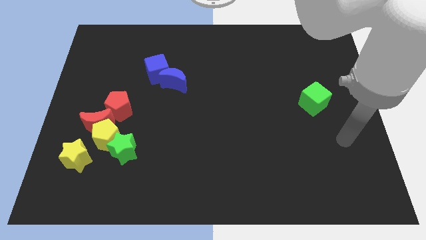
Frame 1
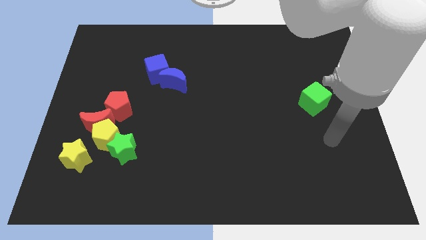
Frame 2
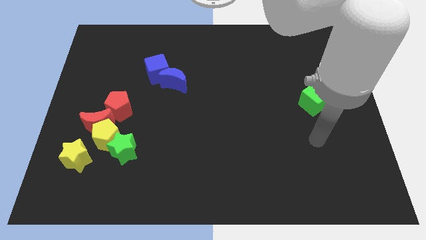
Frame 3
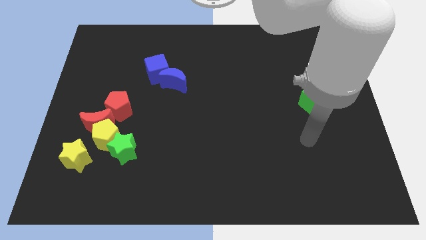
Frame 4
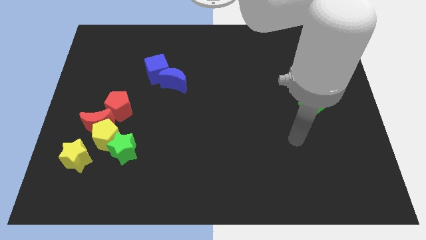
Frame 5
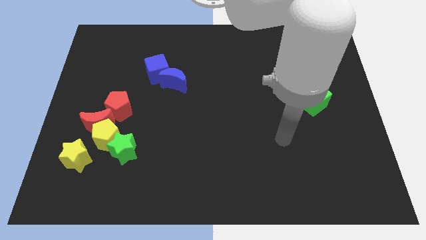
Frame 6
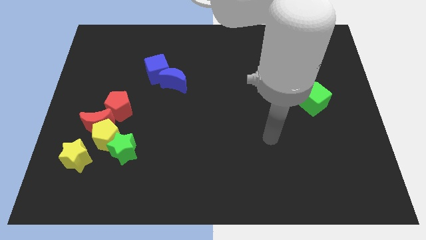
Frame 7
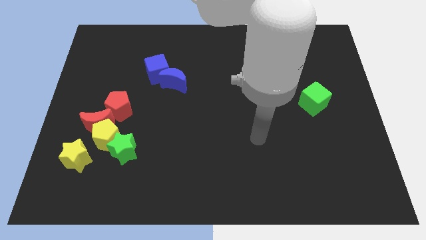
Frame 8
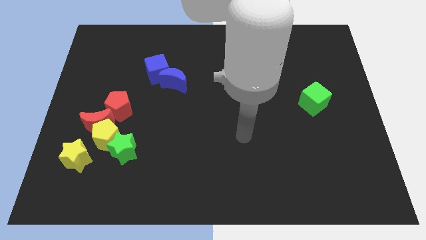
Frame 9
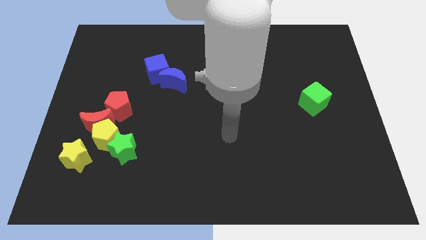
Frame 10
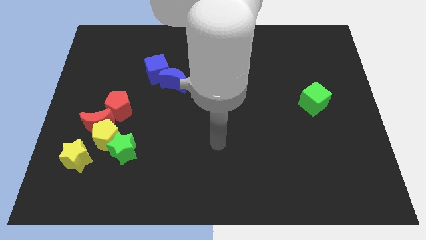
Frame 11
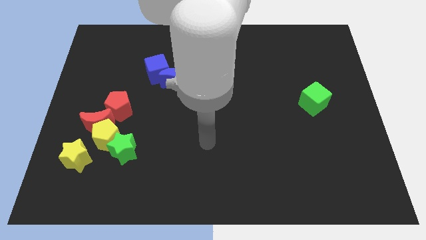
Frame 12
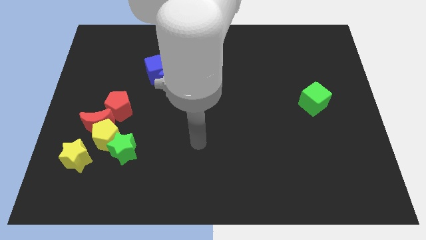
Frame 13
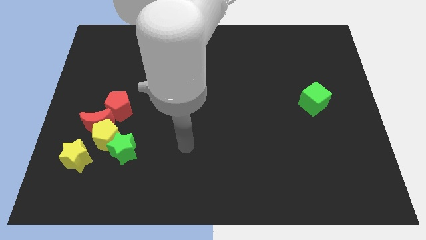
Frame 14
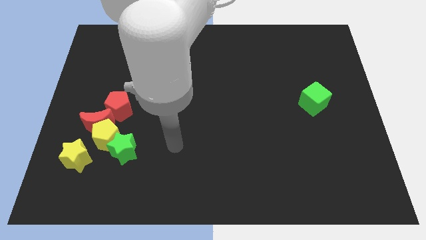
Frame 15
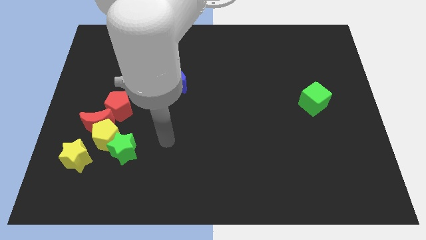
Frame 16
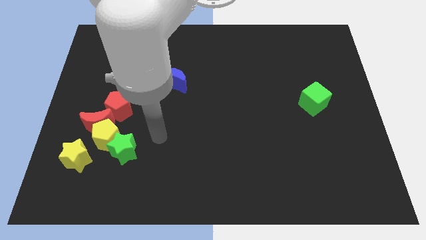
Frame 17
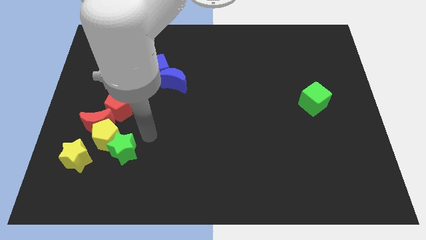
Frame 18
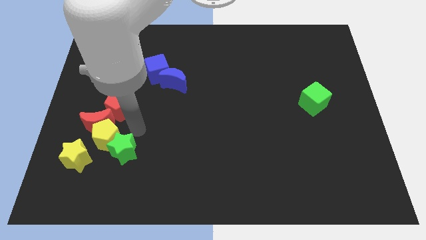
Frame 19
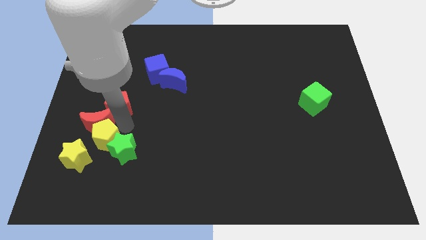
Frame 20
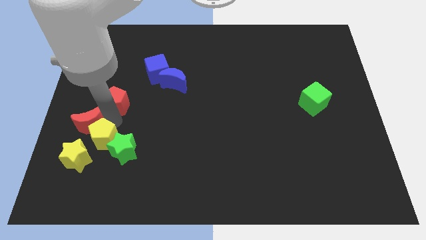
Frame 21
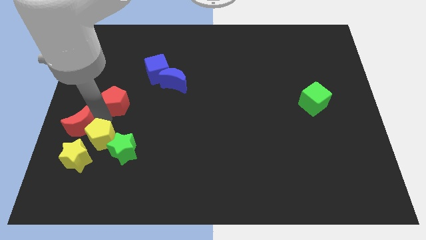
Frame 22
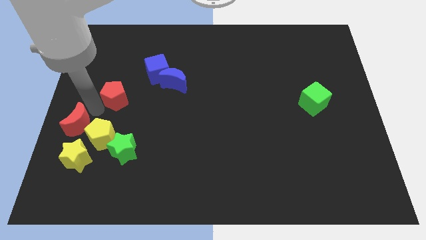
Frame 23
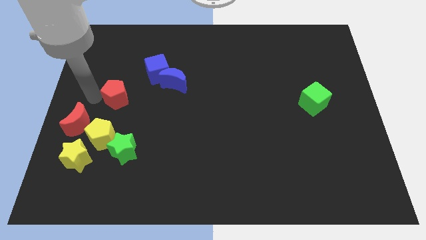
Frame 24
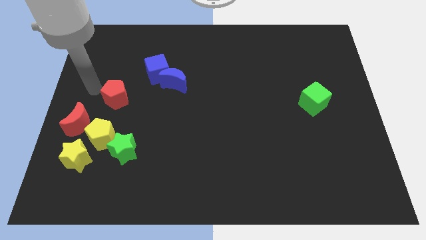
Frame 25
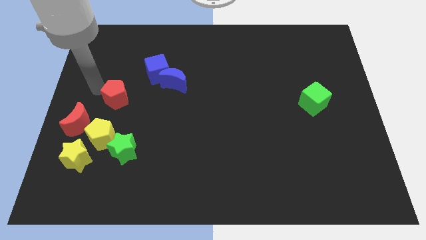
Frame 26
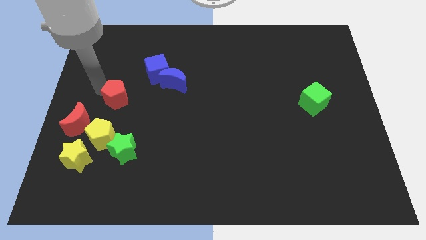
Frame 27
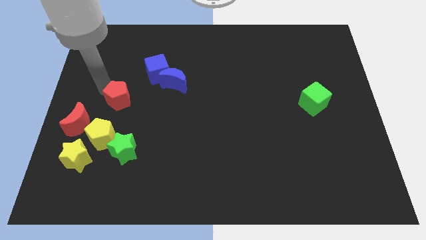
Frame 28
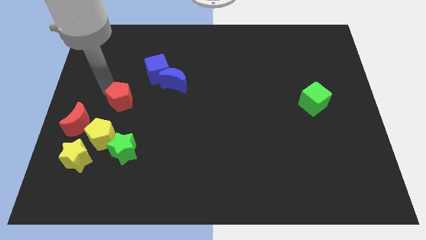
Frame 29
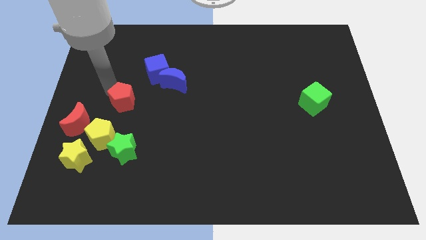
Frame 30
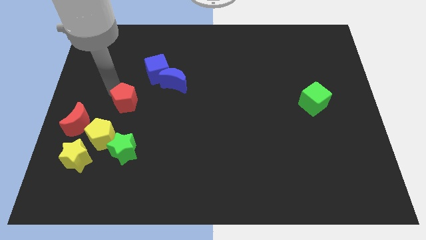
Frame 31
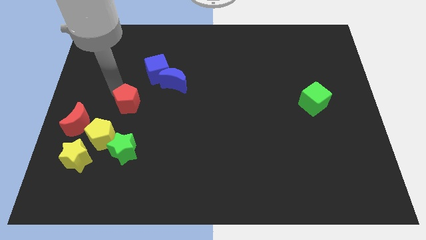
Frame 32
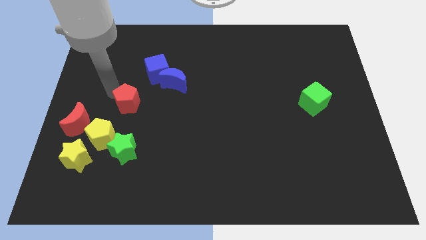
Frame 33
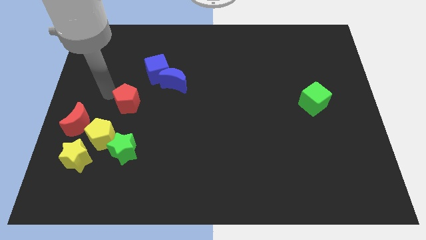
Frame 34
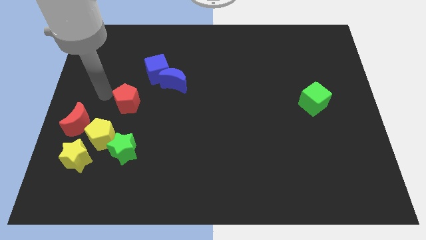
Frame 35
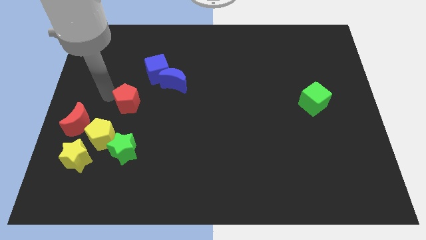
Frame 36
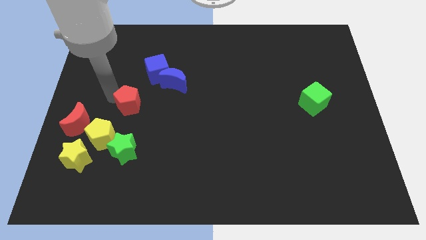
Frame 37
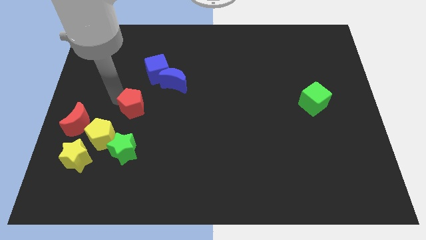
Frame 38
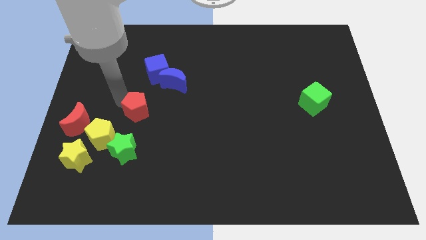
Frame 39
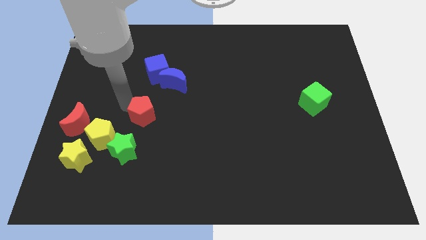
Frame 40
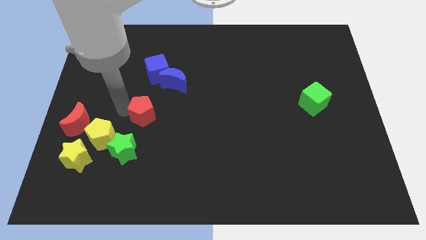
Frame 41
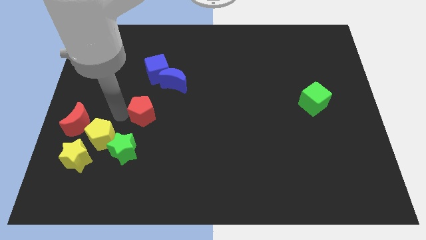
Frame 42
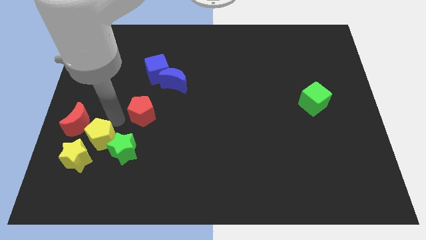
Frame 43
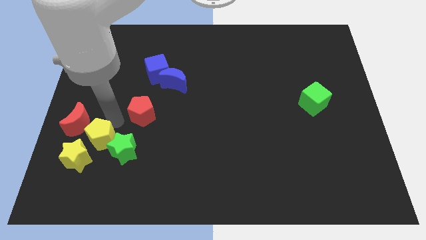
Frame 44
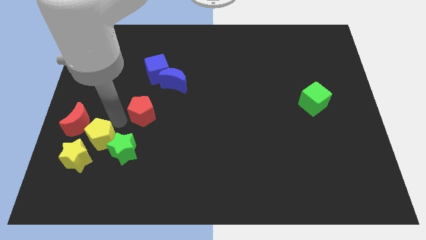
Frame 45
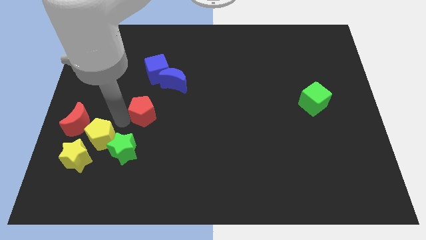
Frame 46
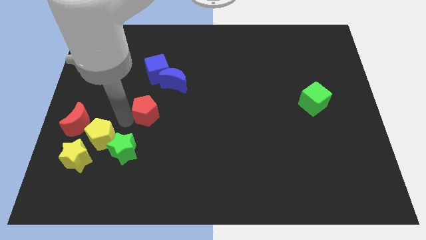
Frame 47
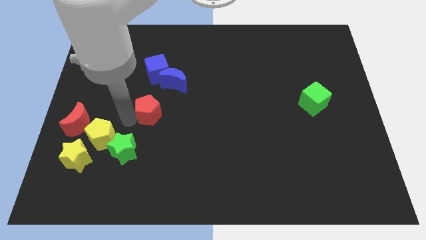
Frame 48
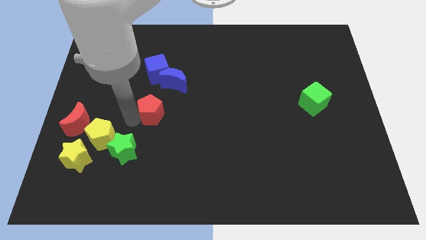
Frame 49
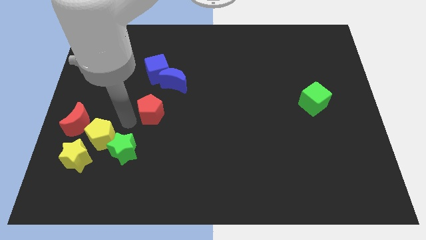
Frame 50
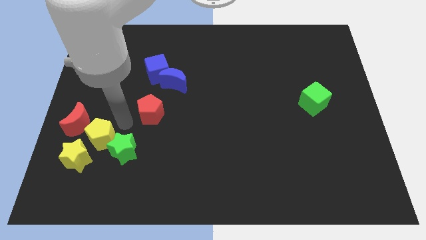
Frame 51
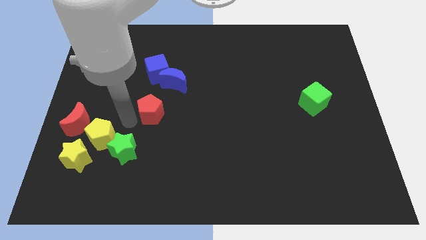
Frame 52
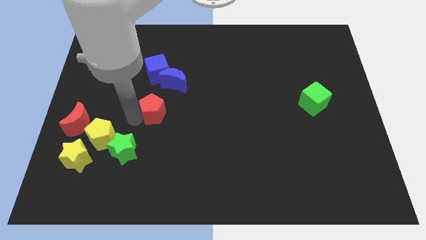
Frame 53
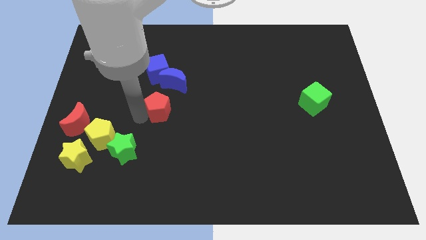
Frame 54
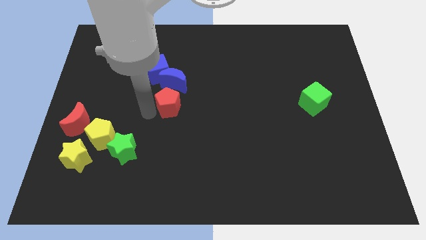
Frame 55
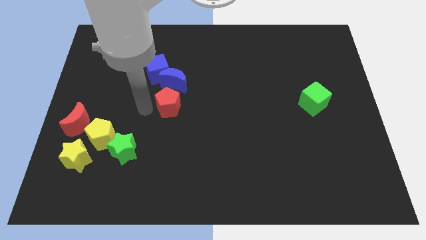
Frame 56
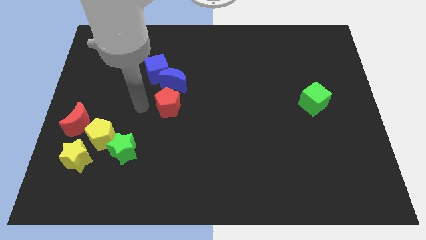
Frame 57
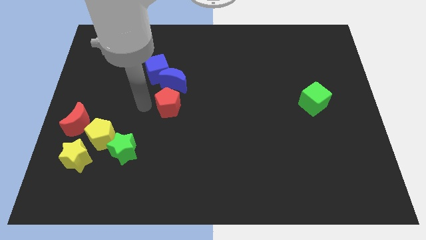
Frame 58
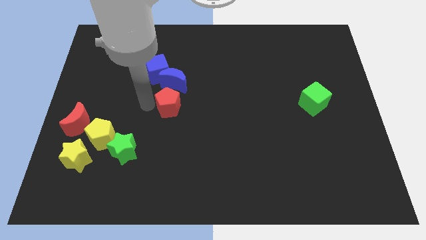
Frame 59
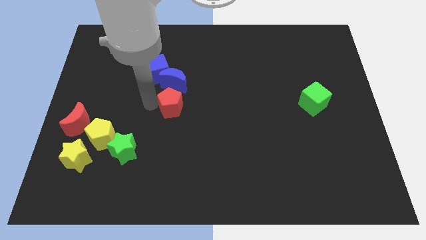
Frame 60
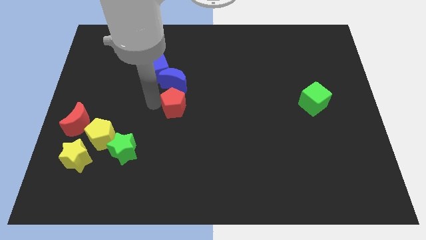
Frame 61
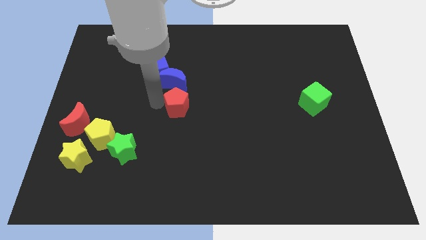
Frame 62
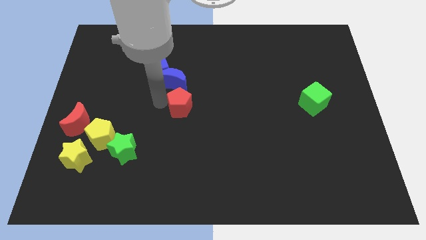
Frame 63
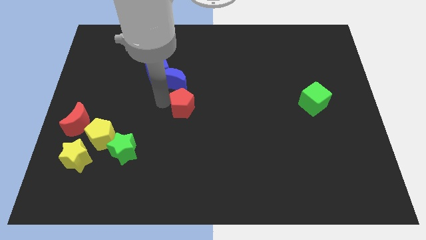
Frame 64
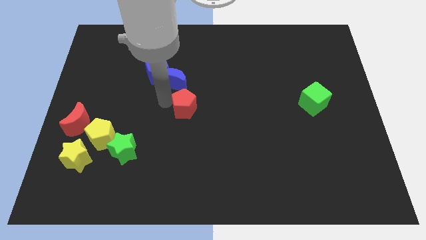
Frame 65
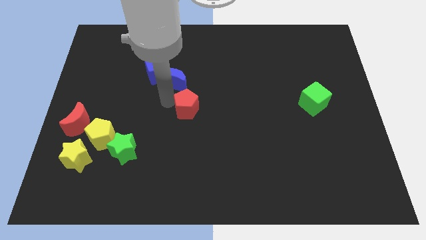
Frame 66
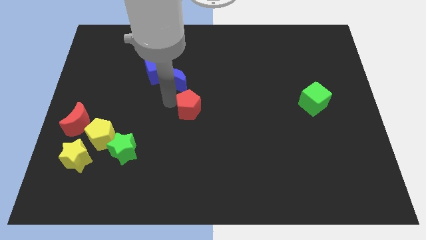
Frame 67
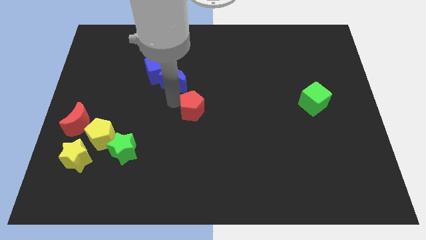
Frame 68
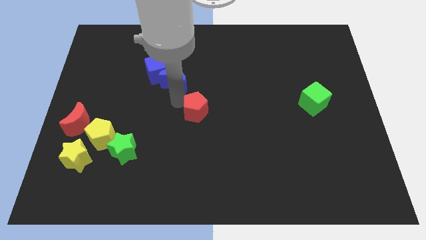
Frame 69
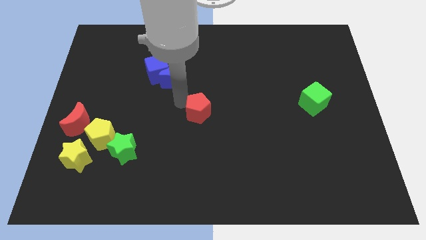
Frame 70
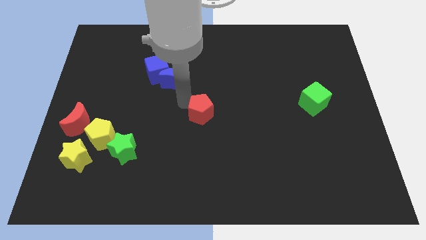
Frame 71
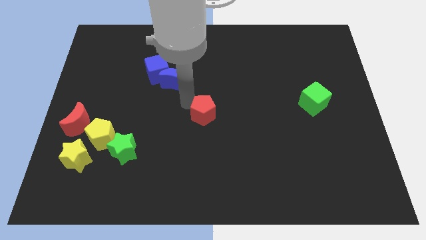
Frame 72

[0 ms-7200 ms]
move the red pentagon right

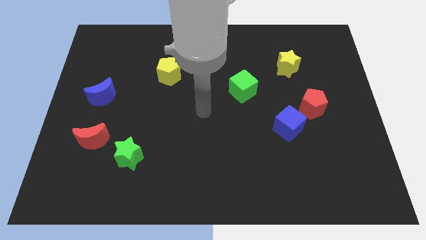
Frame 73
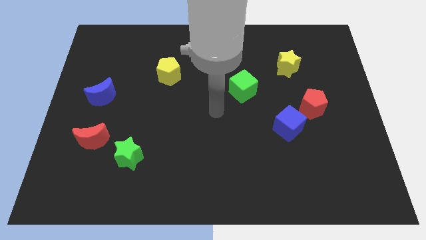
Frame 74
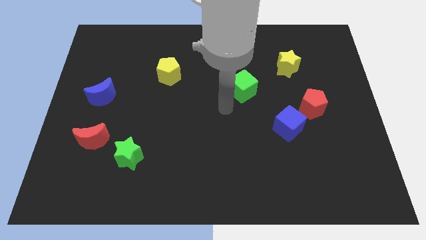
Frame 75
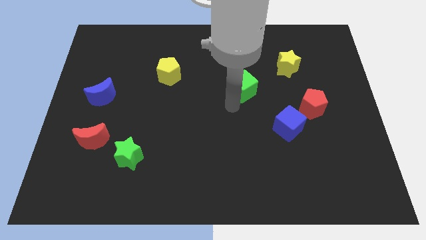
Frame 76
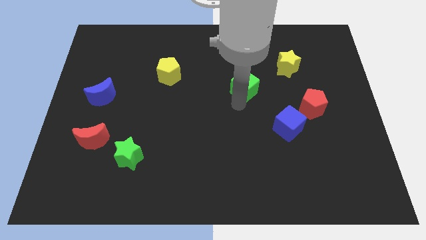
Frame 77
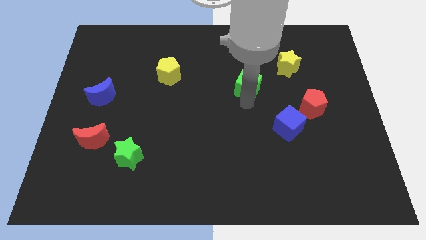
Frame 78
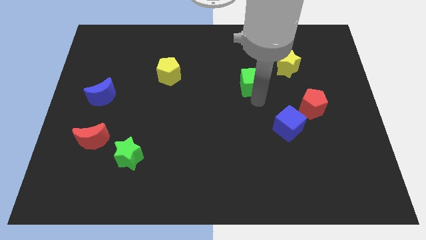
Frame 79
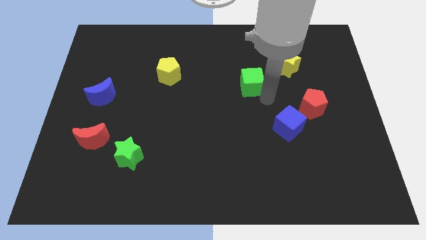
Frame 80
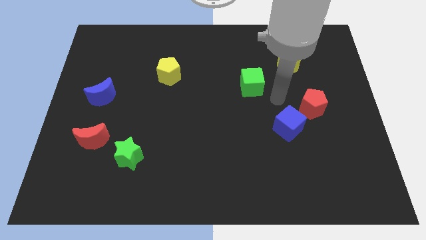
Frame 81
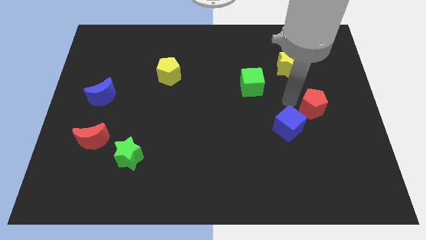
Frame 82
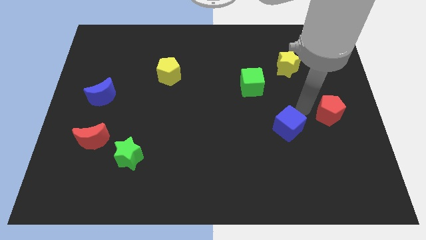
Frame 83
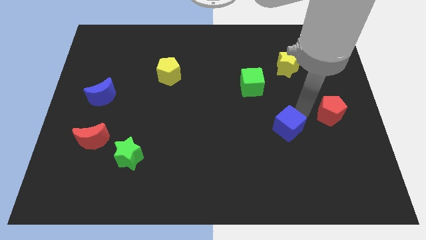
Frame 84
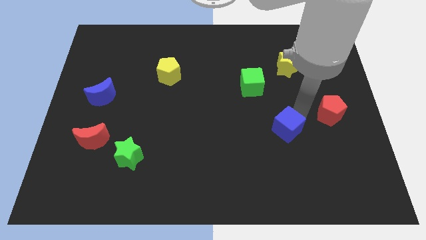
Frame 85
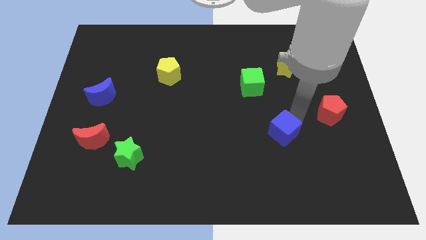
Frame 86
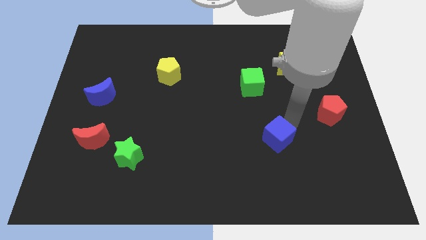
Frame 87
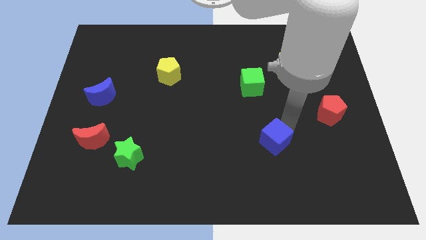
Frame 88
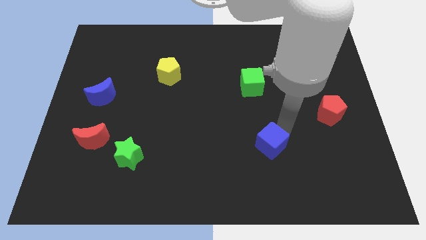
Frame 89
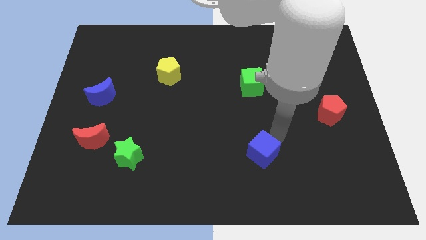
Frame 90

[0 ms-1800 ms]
push the blue cube a little downwards and to the left diagonally
